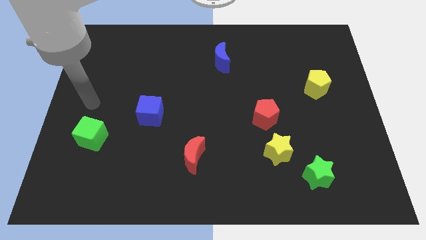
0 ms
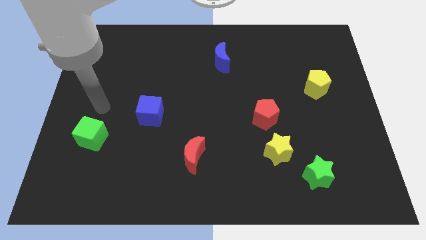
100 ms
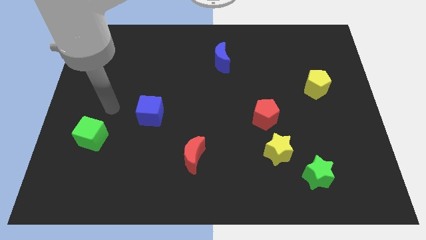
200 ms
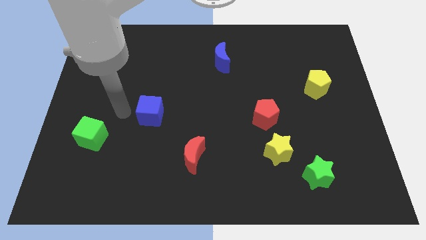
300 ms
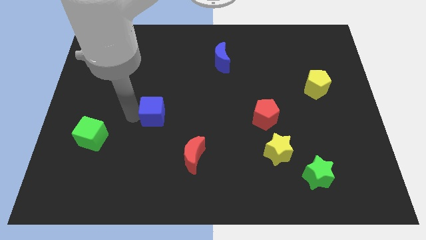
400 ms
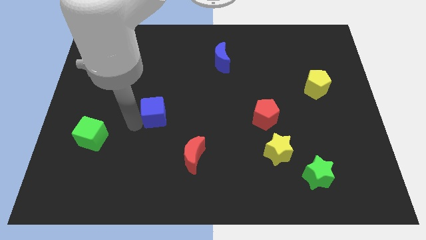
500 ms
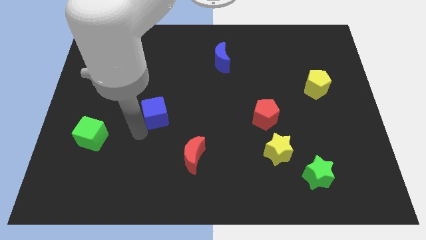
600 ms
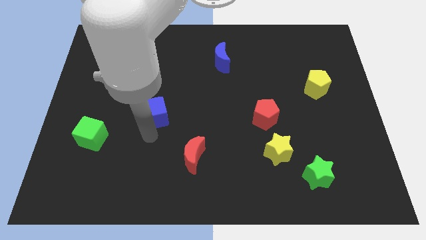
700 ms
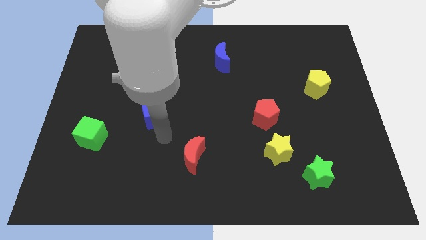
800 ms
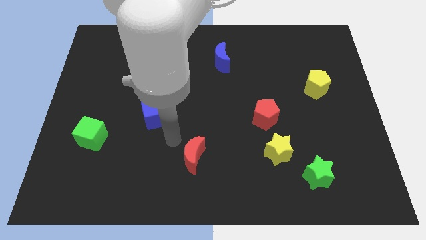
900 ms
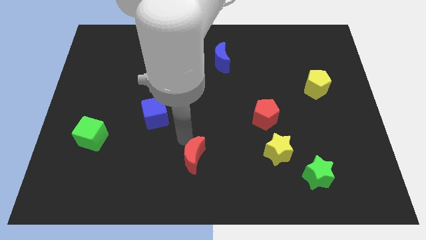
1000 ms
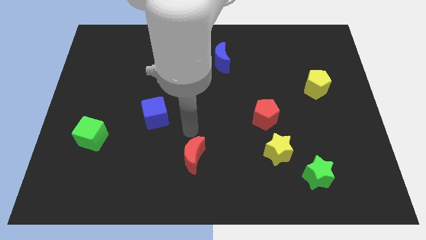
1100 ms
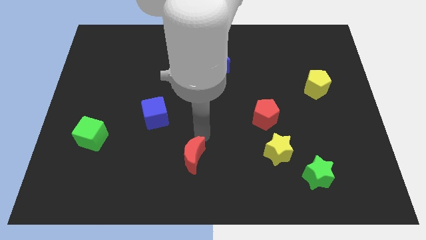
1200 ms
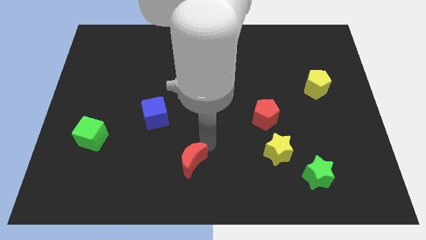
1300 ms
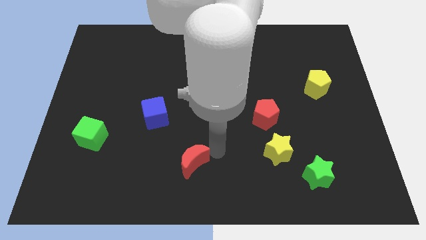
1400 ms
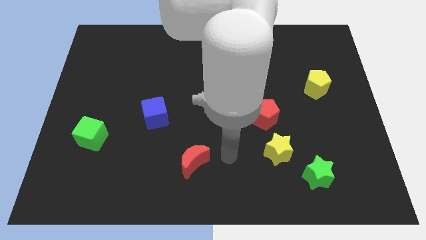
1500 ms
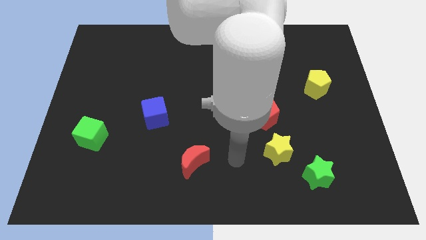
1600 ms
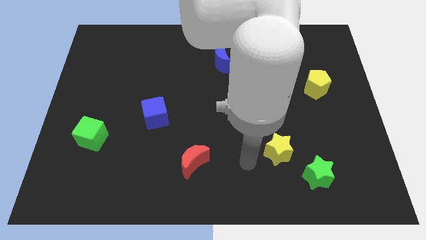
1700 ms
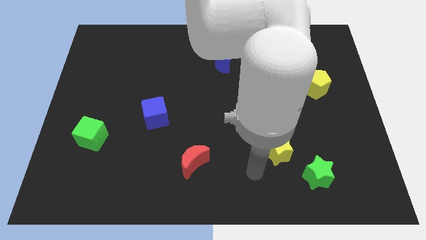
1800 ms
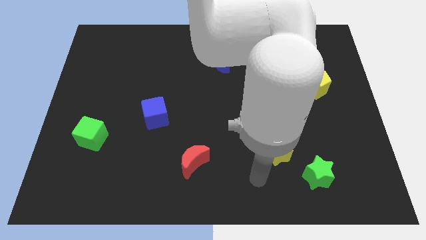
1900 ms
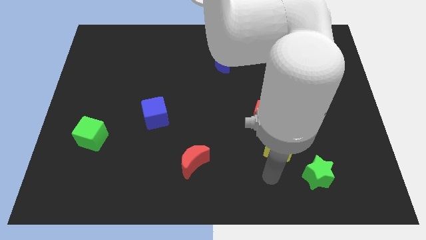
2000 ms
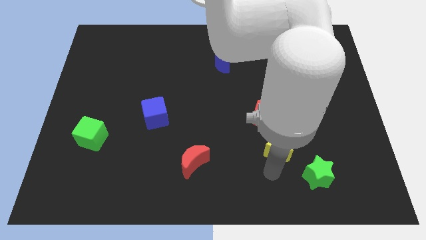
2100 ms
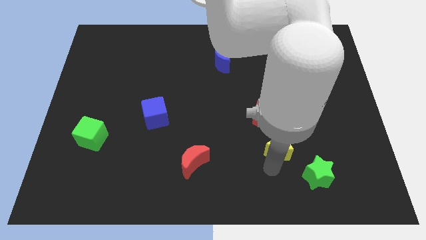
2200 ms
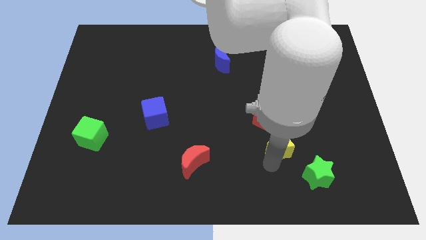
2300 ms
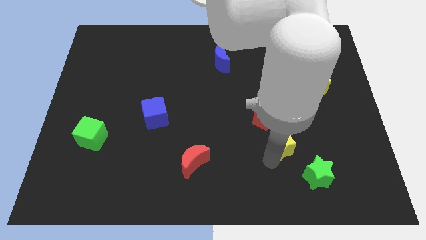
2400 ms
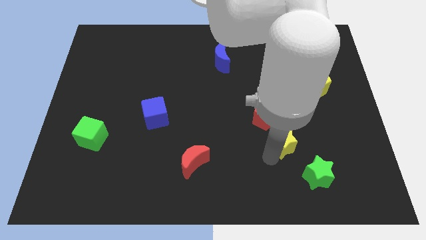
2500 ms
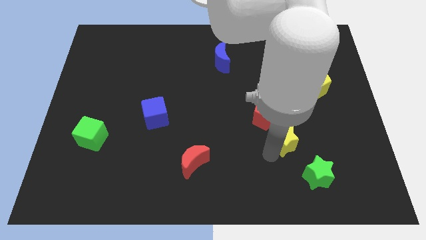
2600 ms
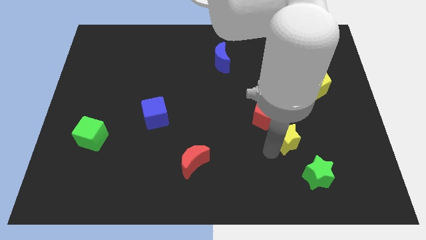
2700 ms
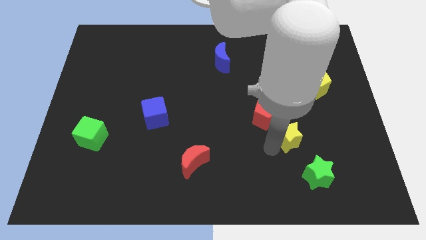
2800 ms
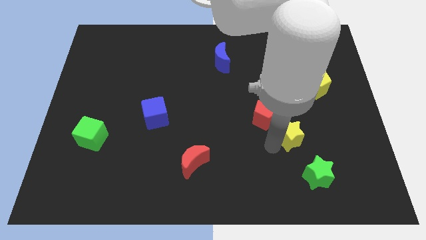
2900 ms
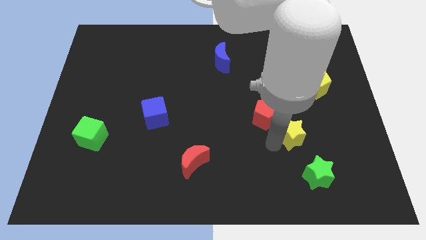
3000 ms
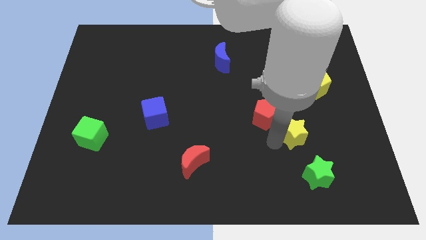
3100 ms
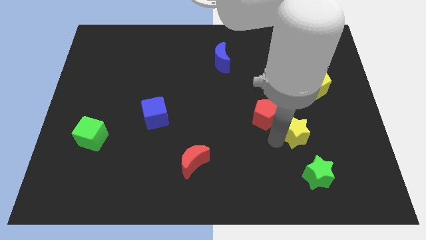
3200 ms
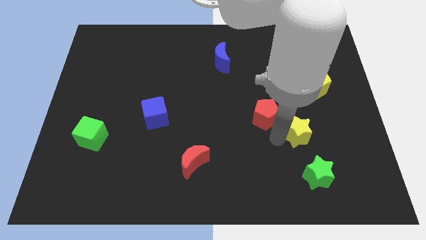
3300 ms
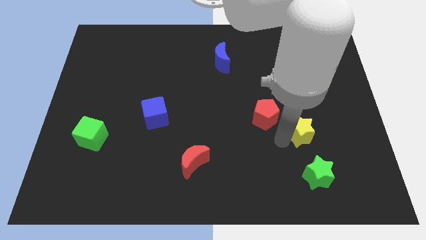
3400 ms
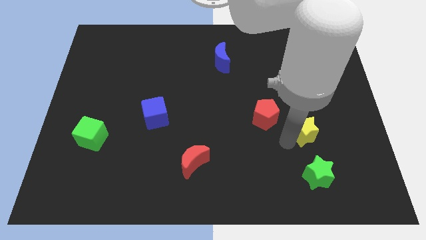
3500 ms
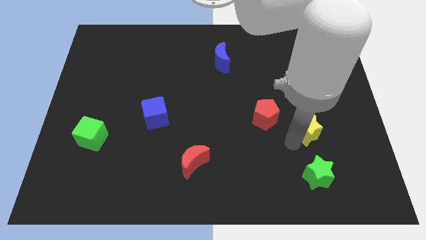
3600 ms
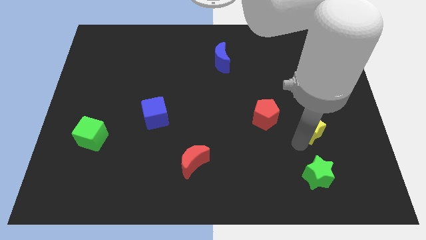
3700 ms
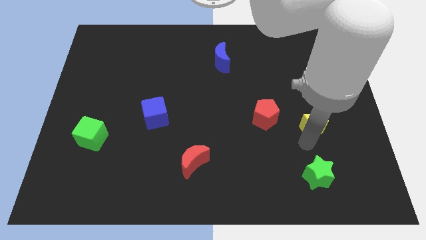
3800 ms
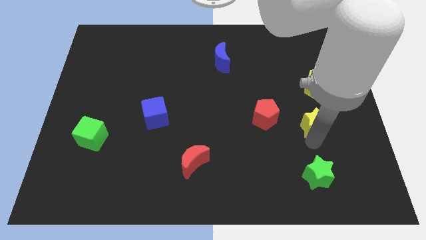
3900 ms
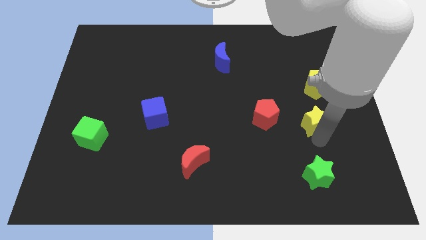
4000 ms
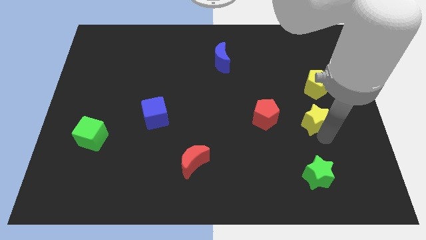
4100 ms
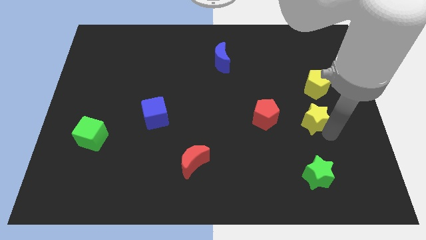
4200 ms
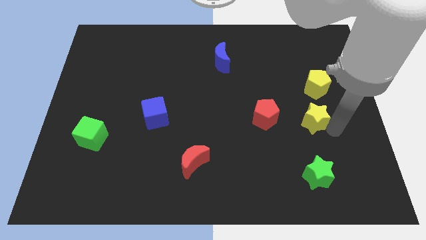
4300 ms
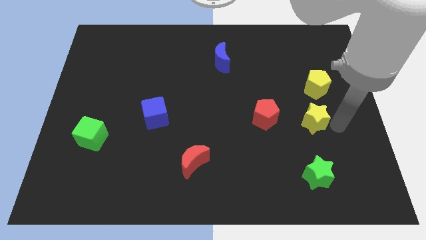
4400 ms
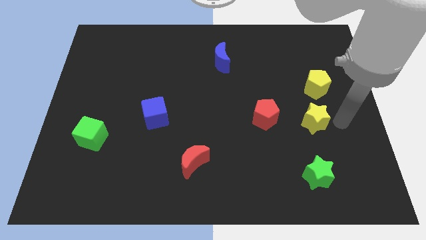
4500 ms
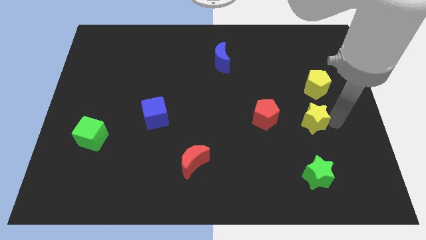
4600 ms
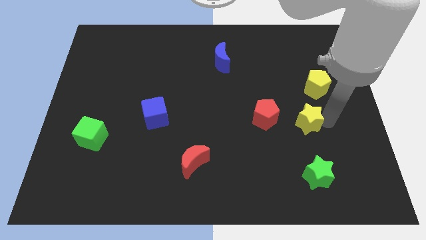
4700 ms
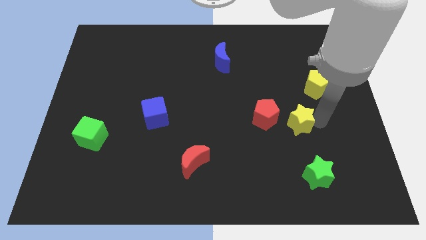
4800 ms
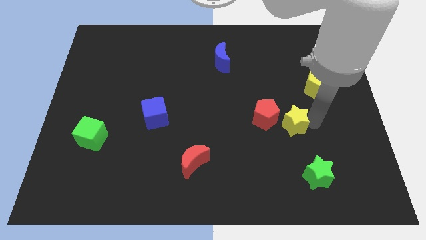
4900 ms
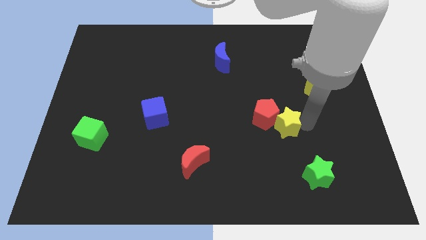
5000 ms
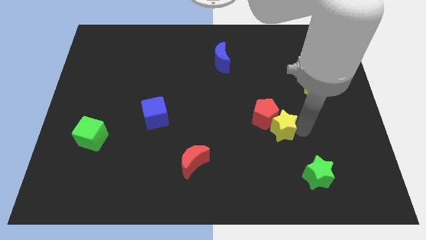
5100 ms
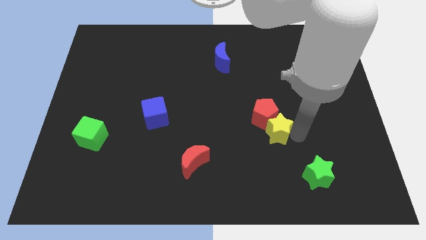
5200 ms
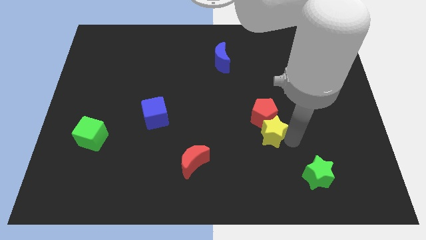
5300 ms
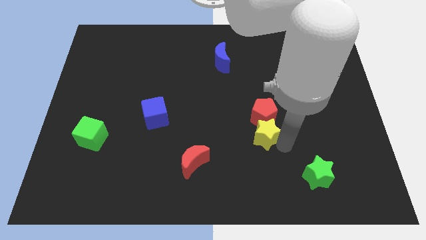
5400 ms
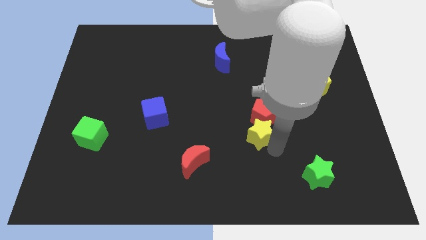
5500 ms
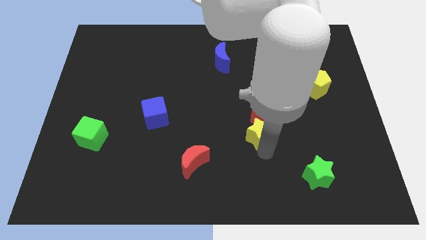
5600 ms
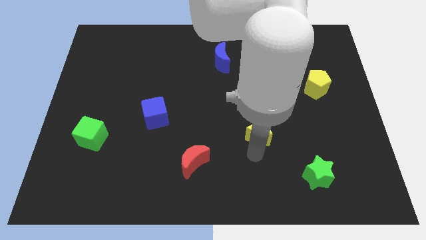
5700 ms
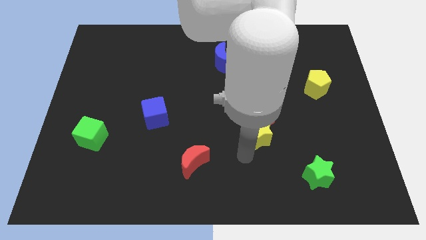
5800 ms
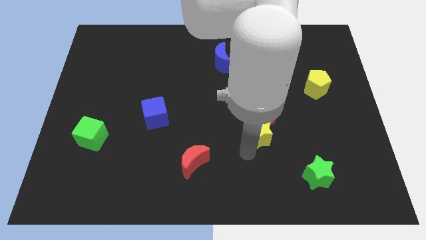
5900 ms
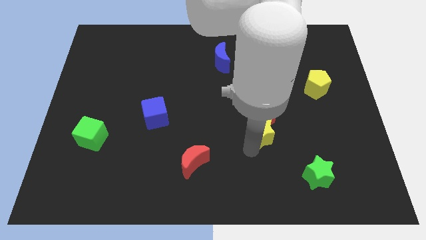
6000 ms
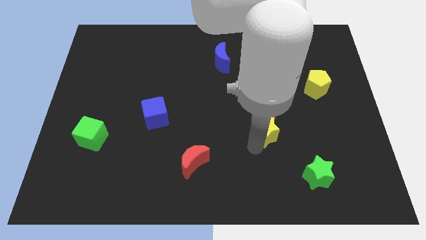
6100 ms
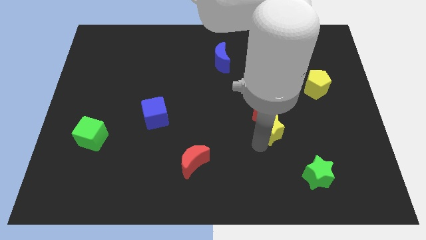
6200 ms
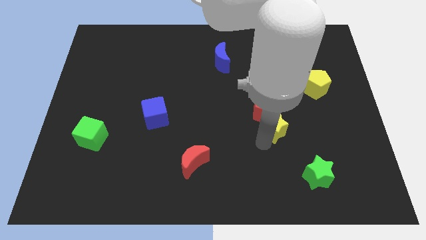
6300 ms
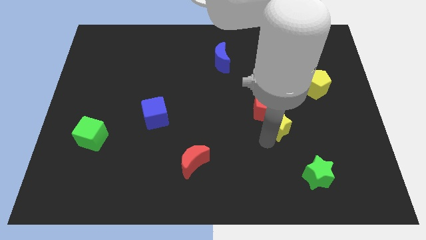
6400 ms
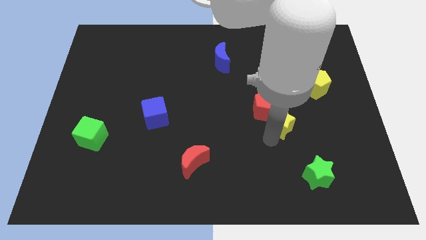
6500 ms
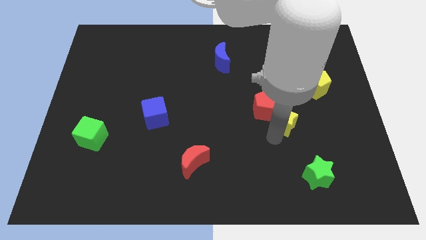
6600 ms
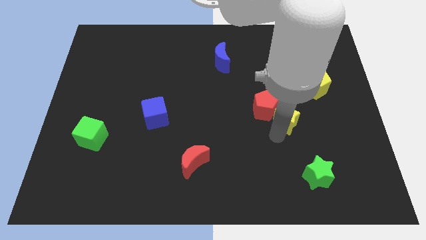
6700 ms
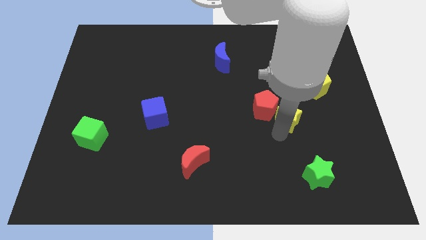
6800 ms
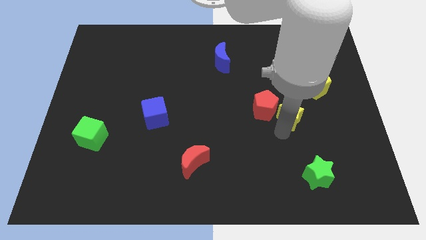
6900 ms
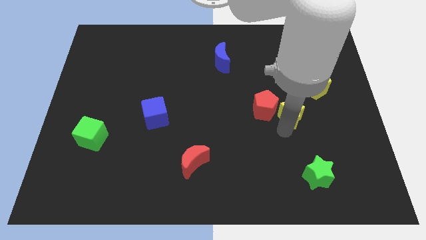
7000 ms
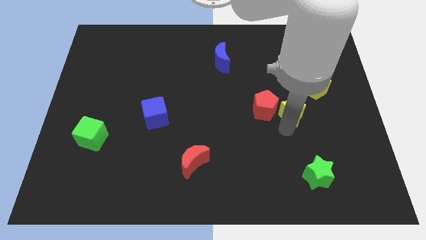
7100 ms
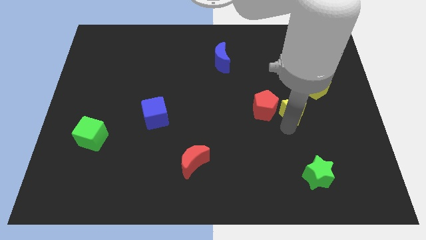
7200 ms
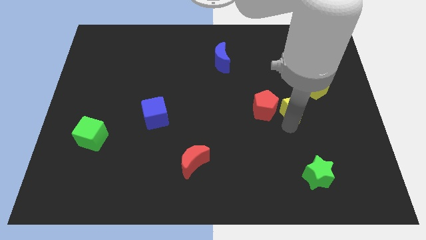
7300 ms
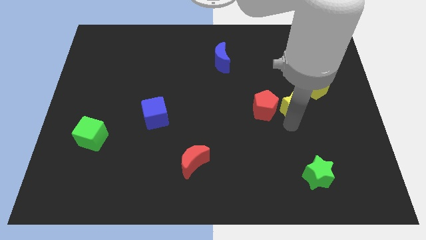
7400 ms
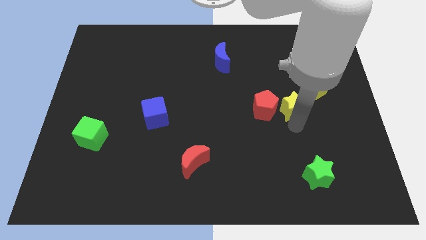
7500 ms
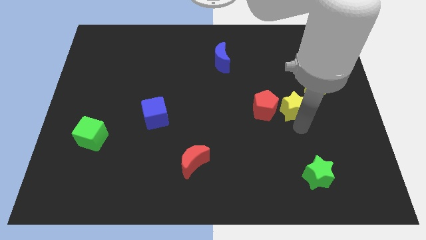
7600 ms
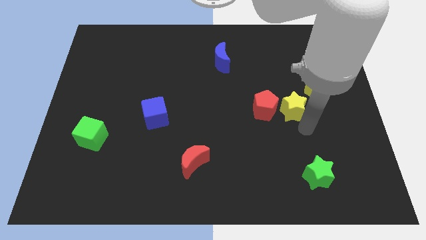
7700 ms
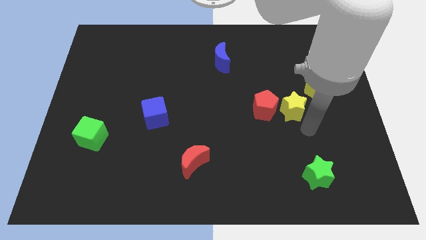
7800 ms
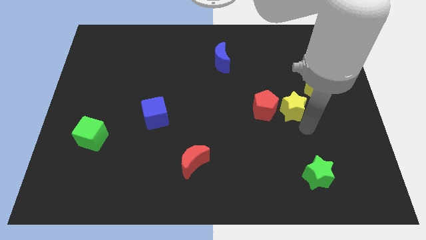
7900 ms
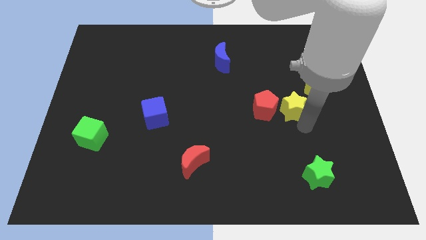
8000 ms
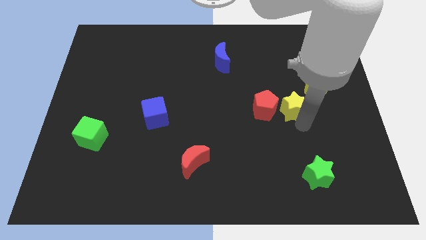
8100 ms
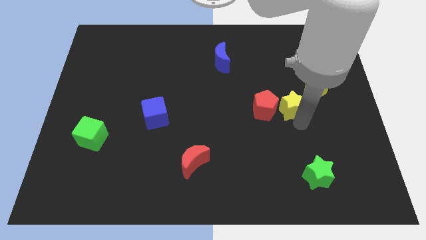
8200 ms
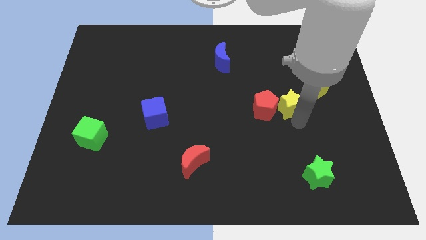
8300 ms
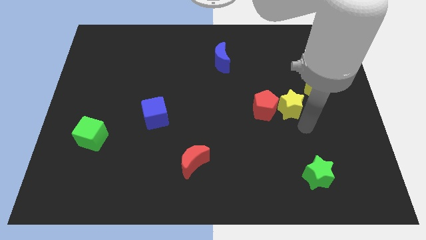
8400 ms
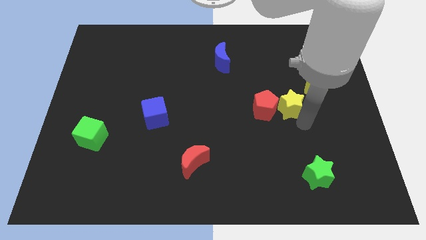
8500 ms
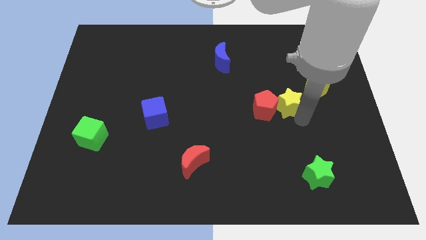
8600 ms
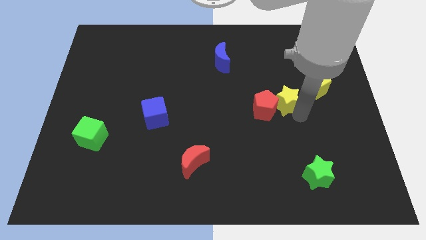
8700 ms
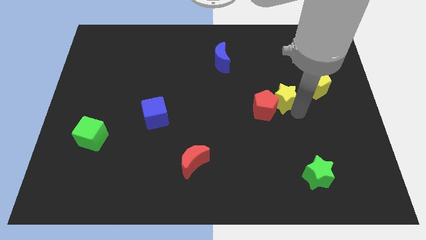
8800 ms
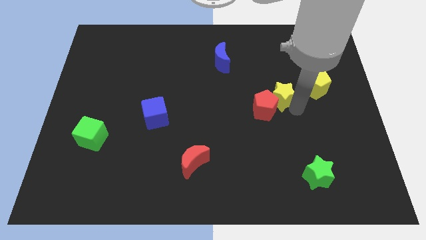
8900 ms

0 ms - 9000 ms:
move the yellow star above the red pentagon
